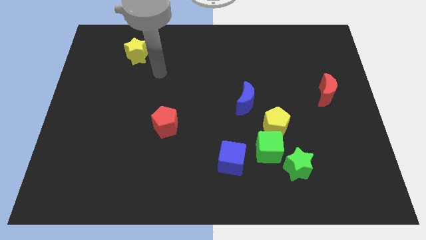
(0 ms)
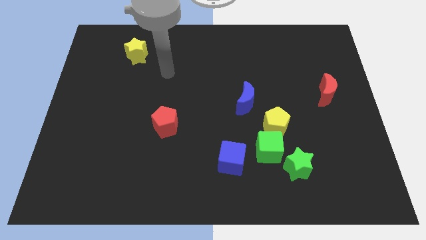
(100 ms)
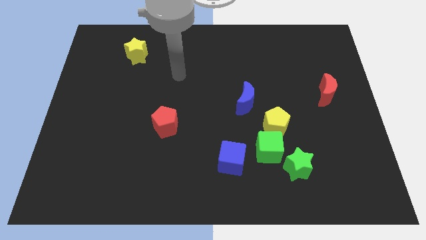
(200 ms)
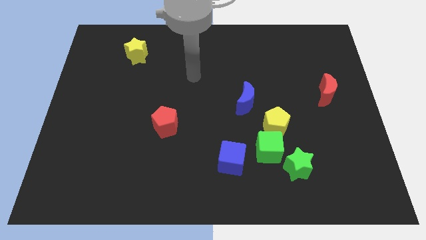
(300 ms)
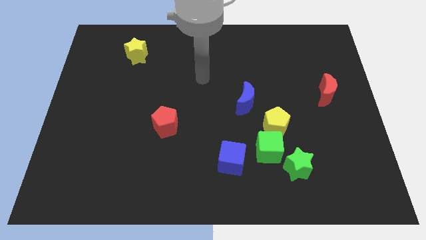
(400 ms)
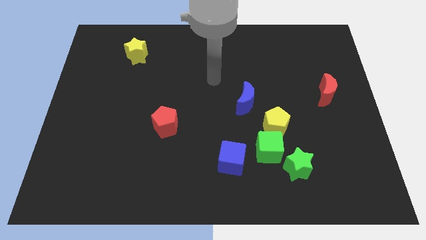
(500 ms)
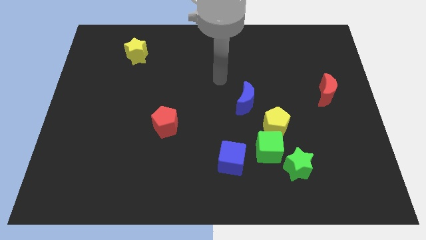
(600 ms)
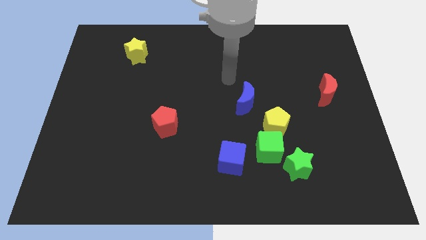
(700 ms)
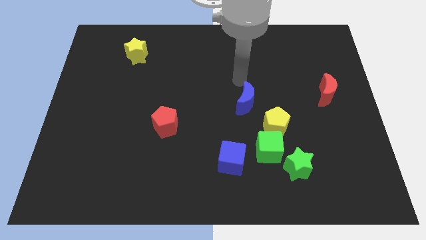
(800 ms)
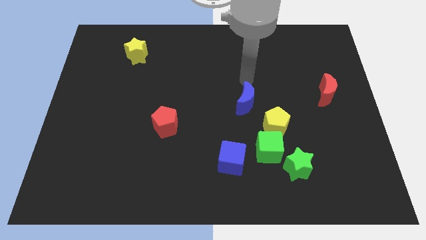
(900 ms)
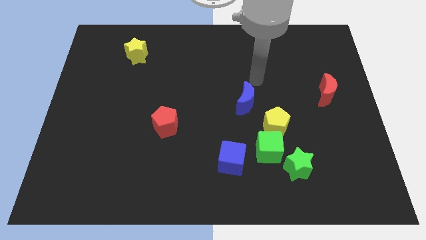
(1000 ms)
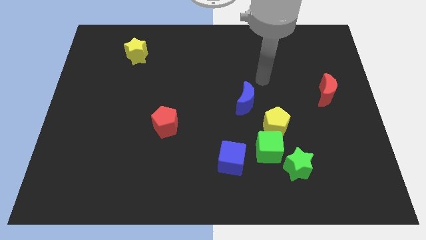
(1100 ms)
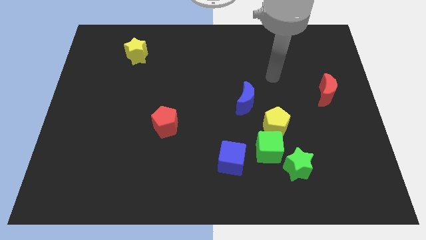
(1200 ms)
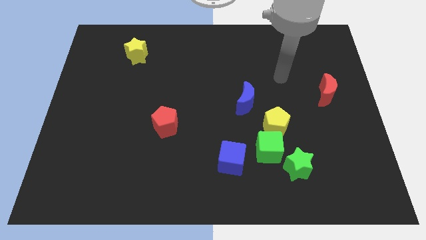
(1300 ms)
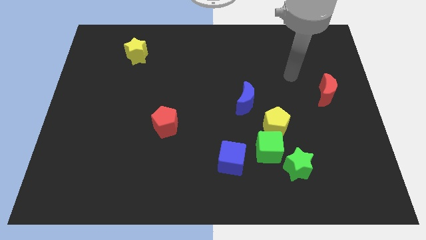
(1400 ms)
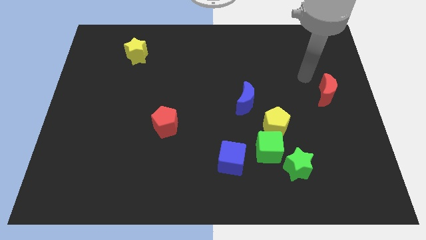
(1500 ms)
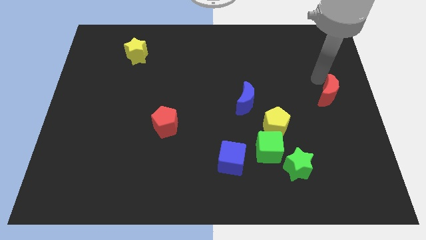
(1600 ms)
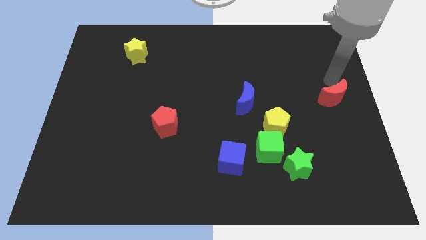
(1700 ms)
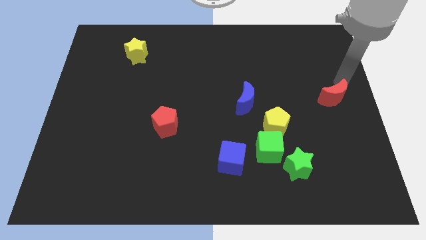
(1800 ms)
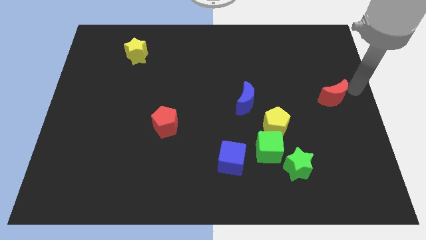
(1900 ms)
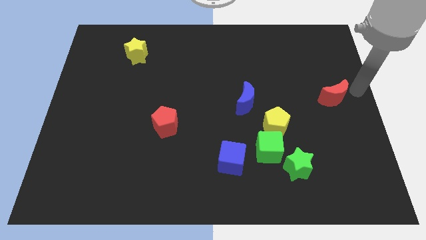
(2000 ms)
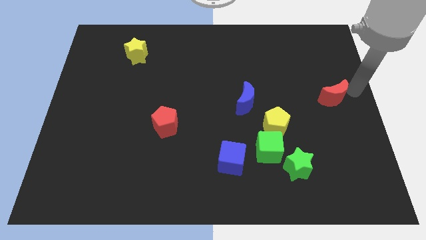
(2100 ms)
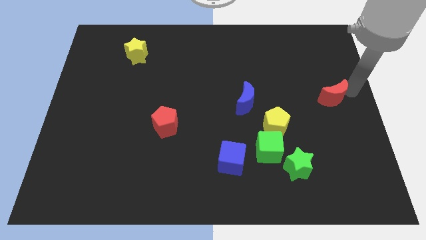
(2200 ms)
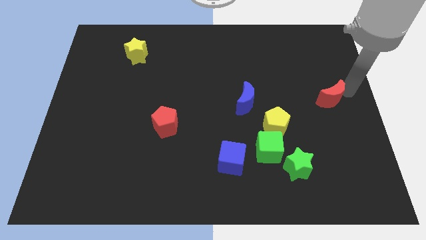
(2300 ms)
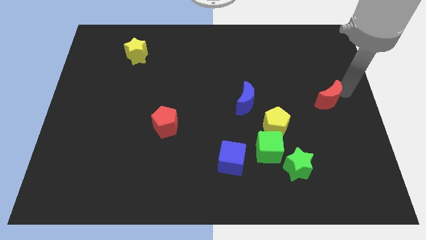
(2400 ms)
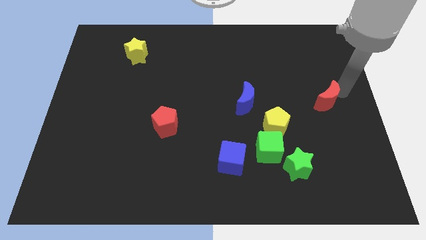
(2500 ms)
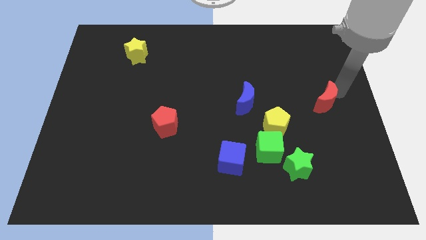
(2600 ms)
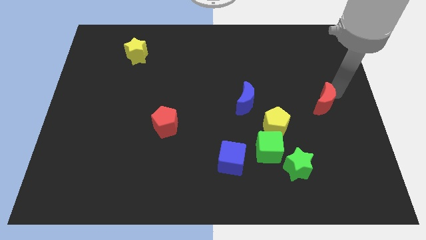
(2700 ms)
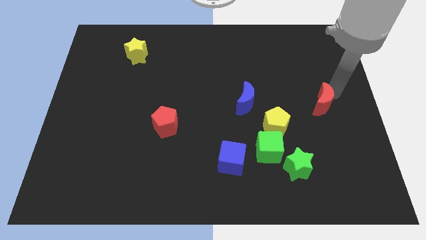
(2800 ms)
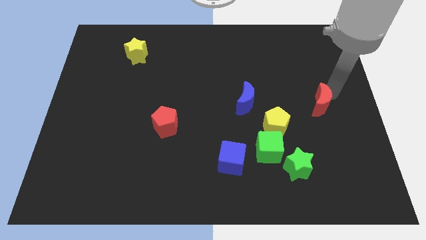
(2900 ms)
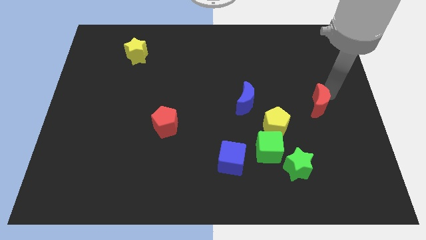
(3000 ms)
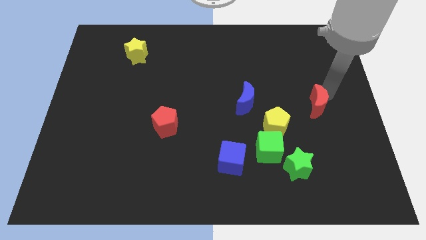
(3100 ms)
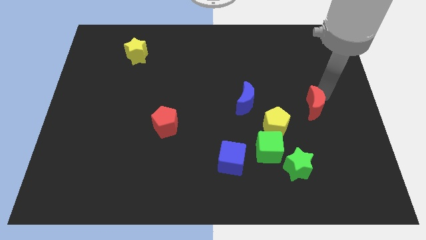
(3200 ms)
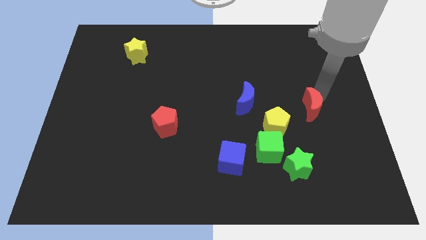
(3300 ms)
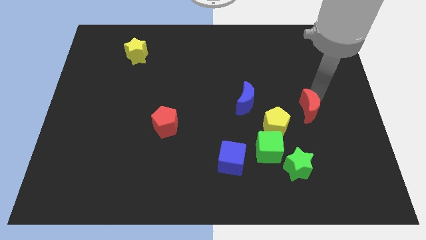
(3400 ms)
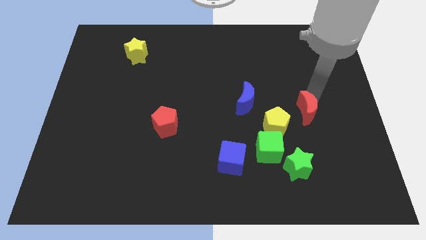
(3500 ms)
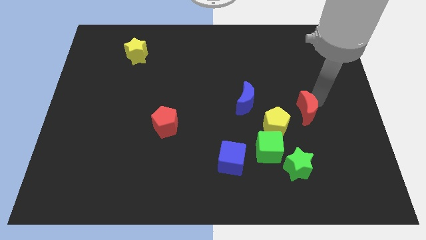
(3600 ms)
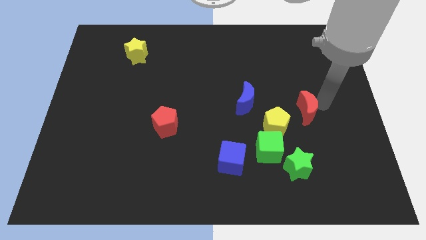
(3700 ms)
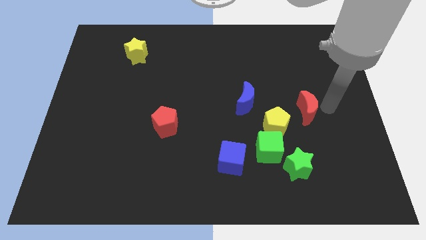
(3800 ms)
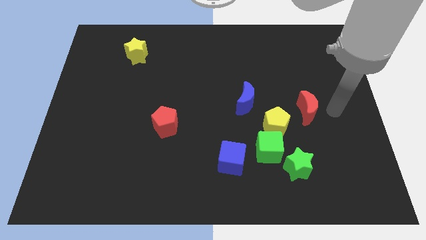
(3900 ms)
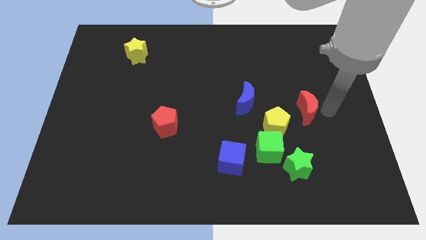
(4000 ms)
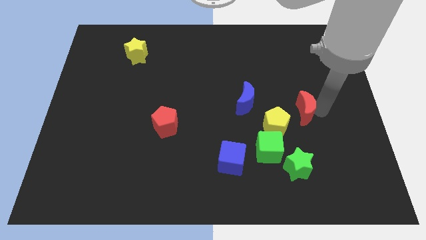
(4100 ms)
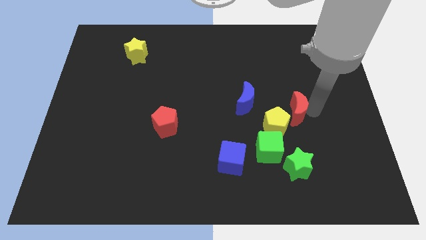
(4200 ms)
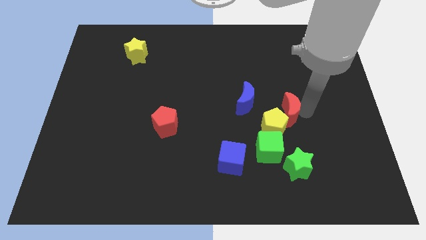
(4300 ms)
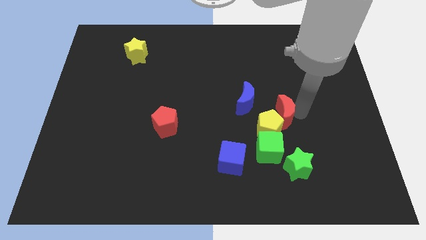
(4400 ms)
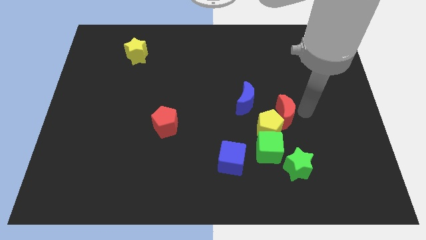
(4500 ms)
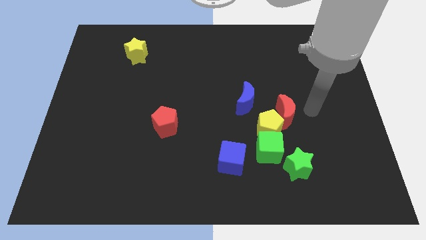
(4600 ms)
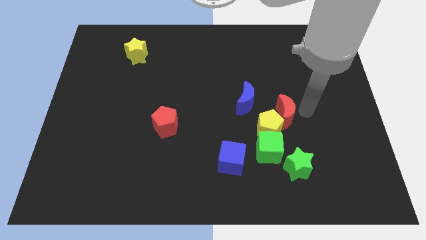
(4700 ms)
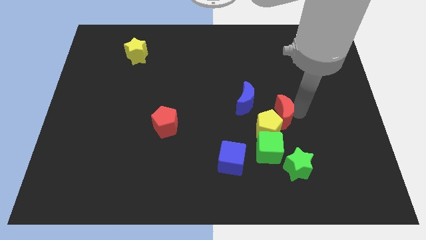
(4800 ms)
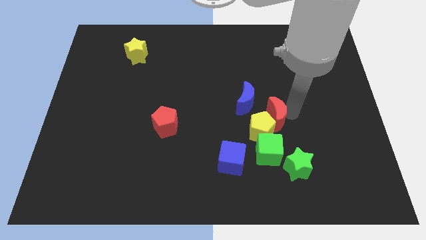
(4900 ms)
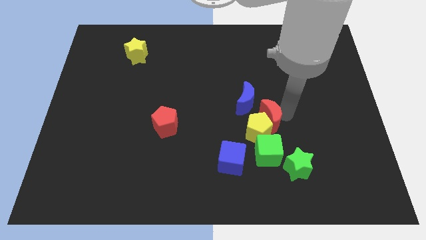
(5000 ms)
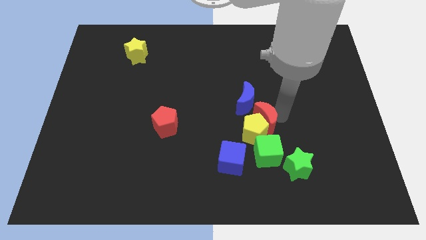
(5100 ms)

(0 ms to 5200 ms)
move the red moon to the bottom side of the blue moon

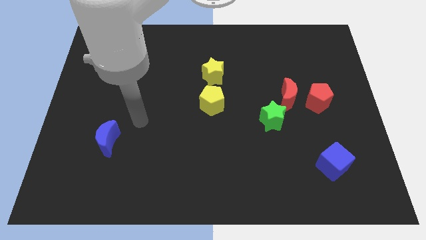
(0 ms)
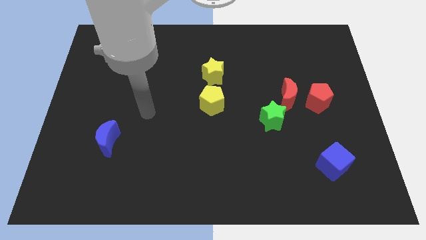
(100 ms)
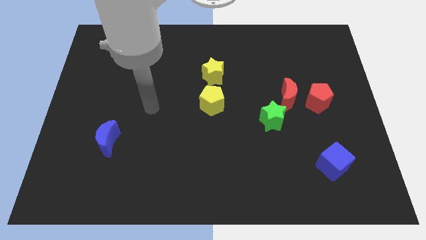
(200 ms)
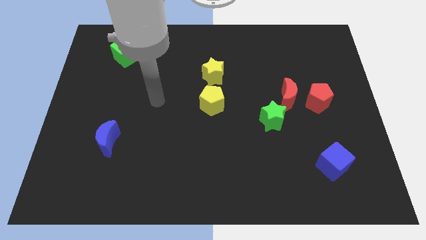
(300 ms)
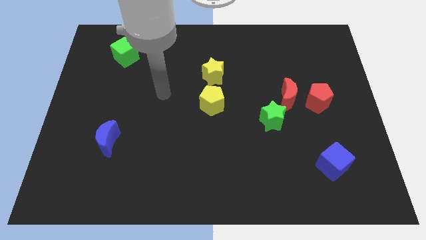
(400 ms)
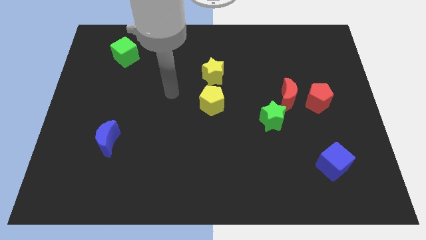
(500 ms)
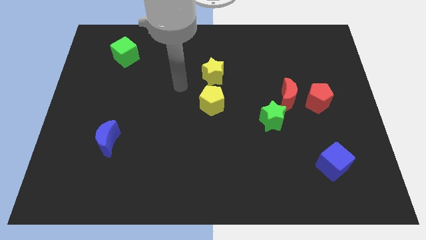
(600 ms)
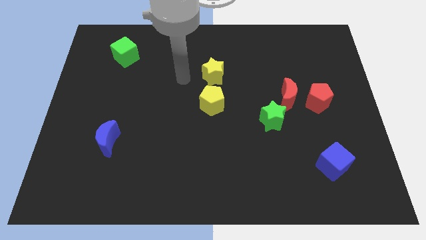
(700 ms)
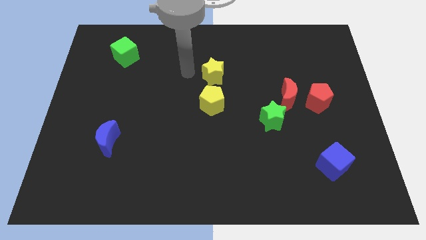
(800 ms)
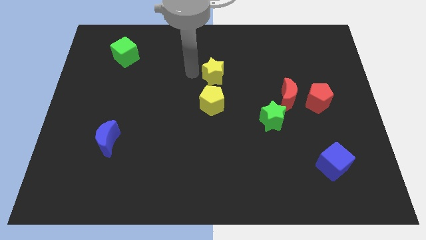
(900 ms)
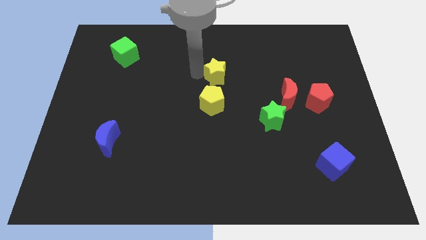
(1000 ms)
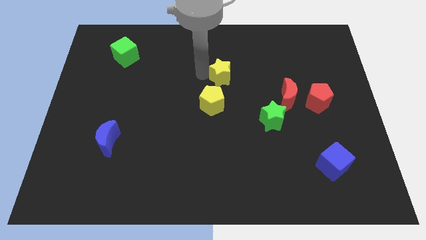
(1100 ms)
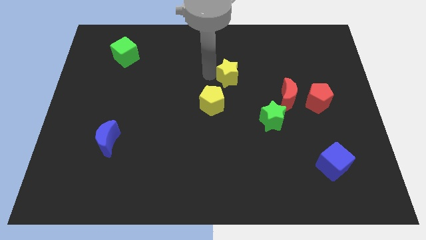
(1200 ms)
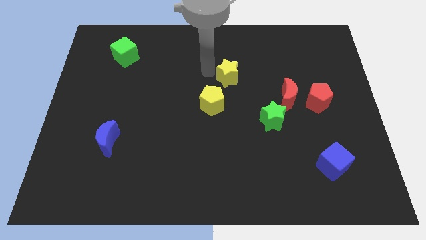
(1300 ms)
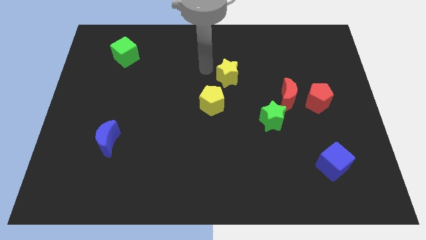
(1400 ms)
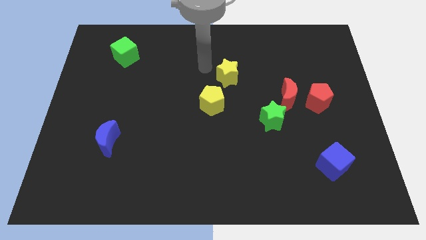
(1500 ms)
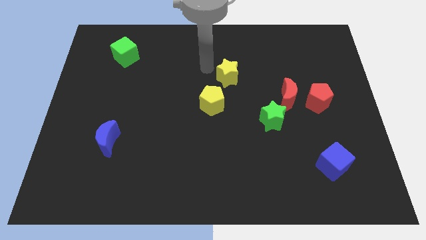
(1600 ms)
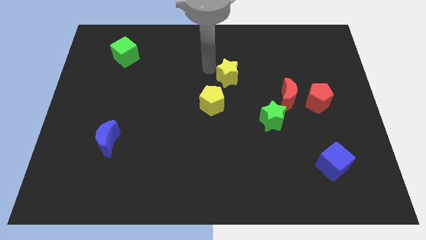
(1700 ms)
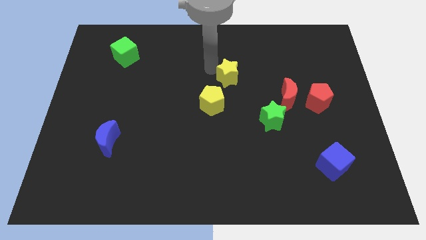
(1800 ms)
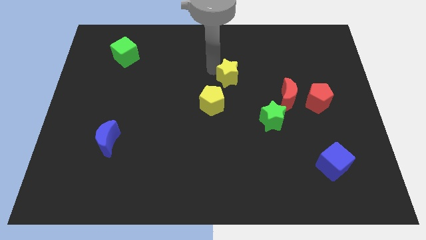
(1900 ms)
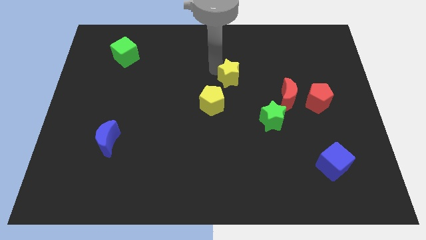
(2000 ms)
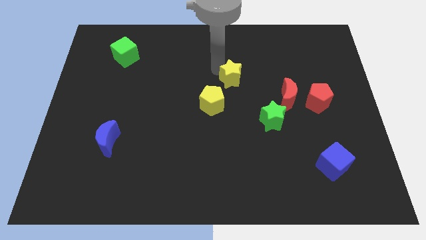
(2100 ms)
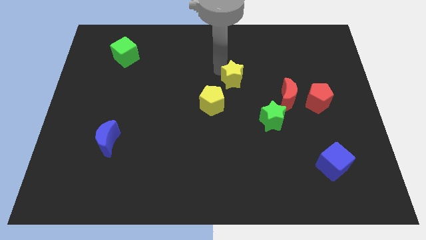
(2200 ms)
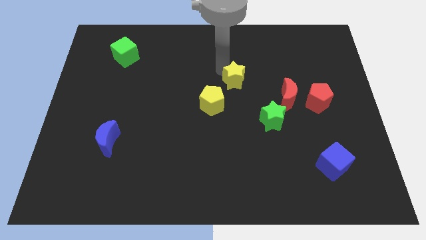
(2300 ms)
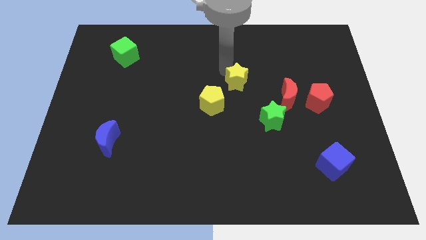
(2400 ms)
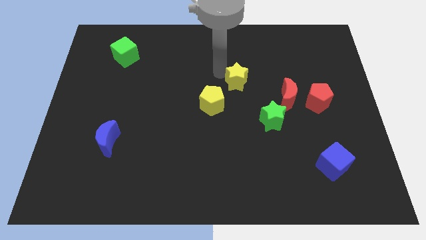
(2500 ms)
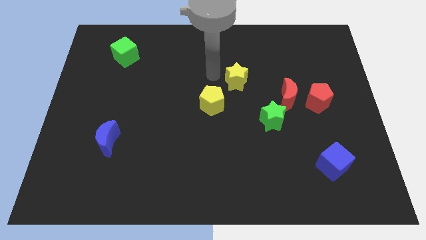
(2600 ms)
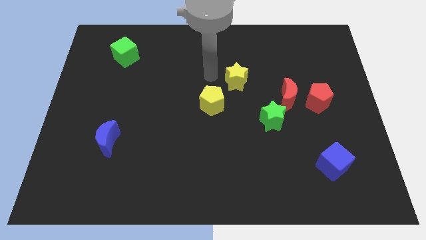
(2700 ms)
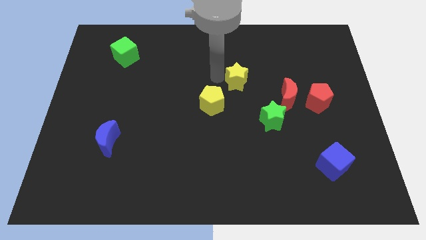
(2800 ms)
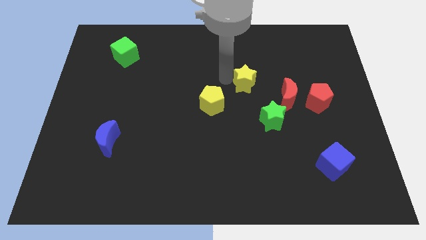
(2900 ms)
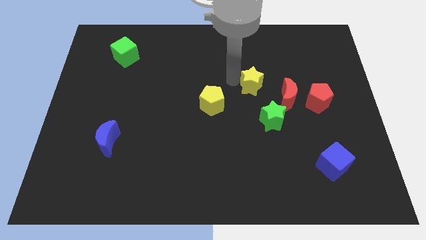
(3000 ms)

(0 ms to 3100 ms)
push the yellow star above the green star
